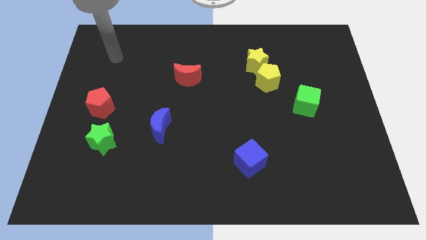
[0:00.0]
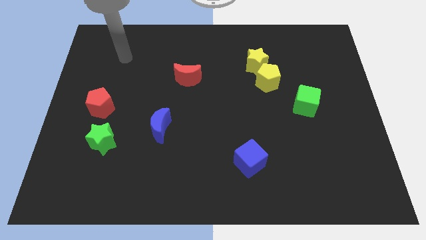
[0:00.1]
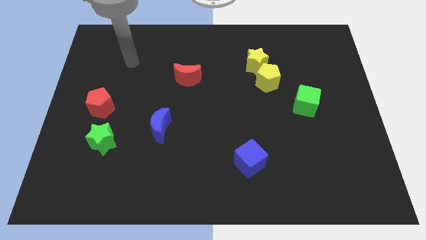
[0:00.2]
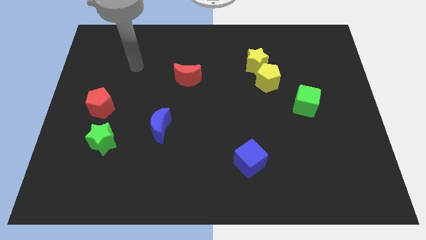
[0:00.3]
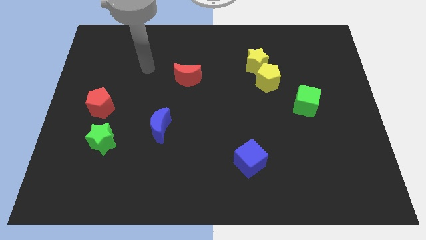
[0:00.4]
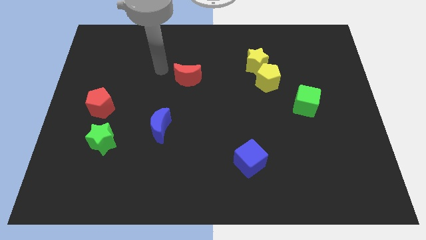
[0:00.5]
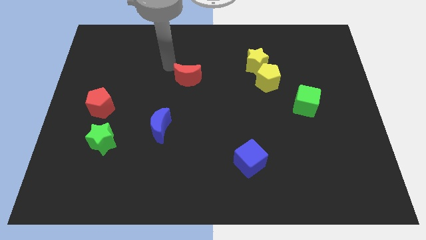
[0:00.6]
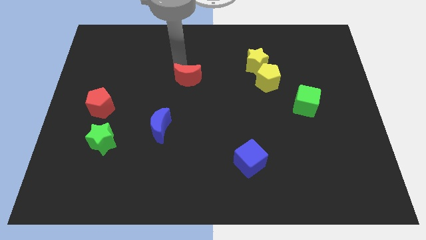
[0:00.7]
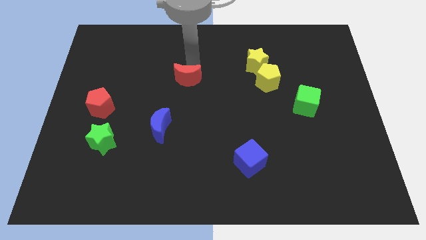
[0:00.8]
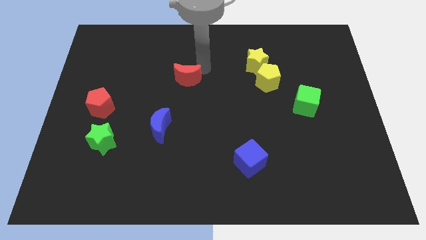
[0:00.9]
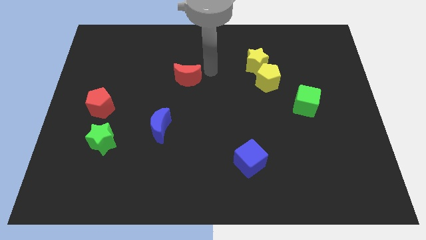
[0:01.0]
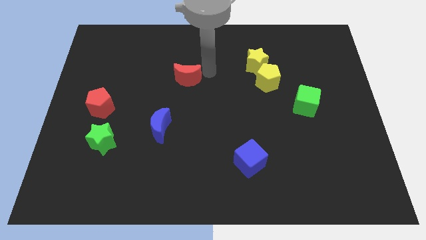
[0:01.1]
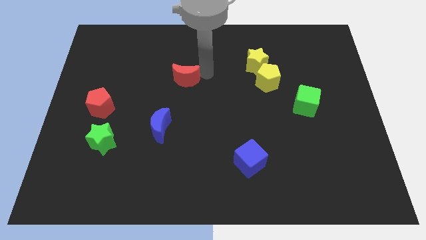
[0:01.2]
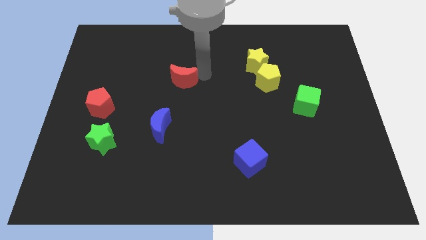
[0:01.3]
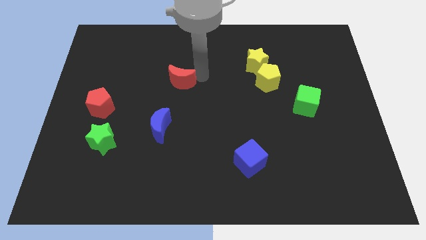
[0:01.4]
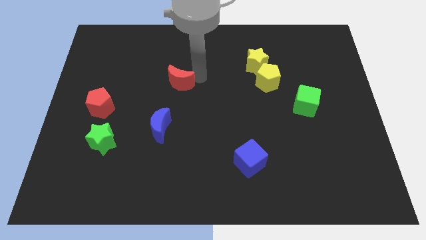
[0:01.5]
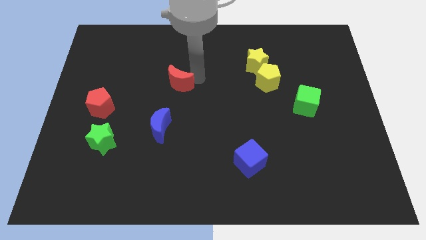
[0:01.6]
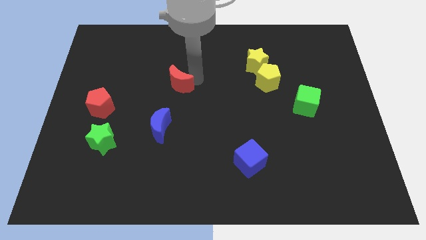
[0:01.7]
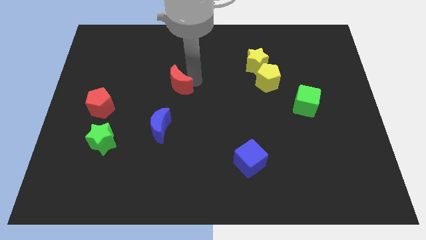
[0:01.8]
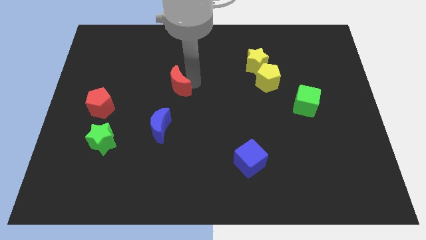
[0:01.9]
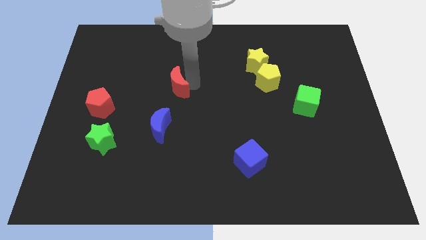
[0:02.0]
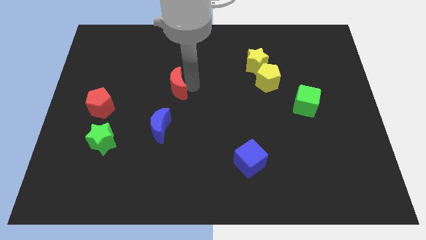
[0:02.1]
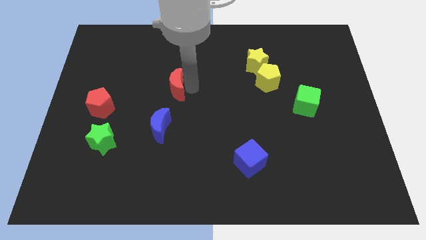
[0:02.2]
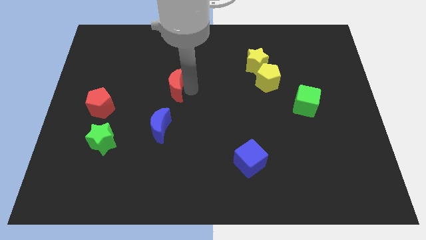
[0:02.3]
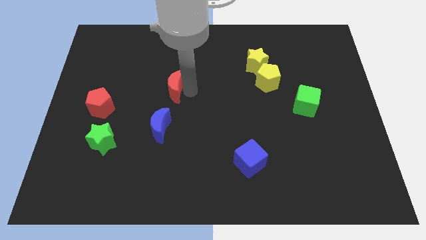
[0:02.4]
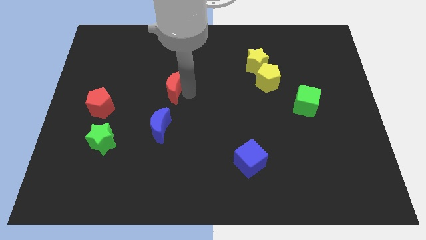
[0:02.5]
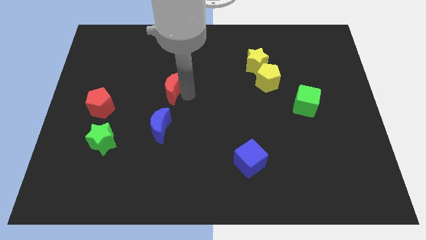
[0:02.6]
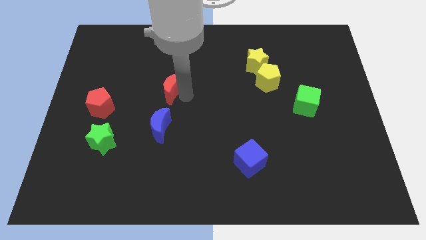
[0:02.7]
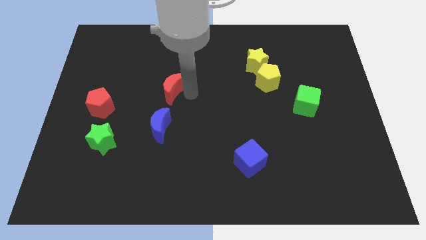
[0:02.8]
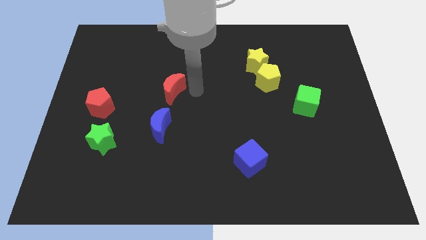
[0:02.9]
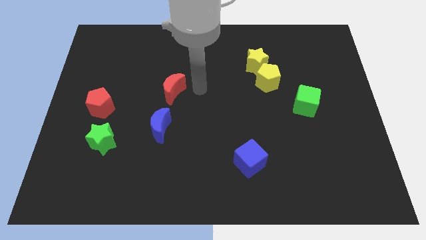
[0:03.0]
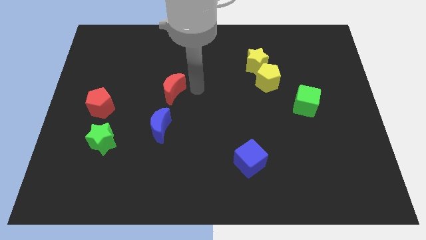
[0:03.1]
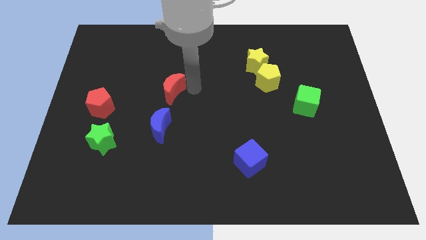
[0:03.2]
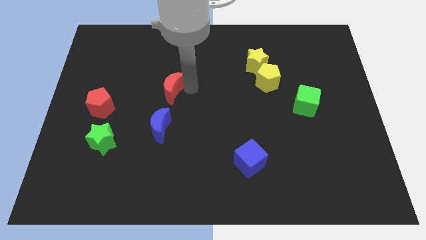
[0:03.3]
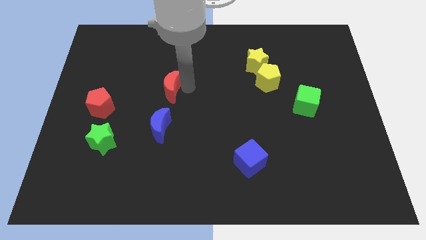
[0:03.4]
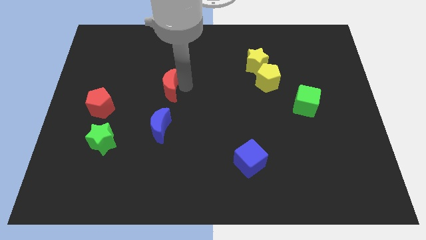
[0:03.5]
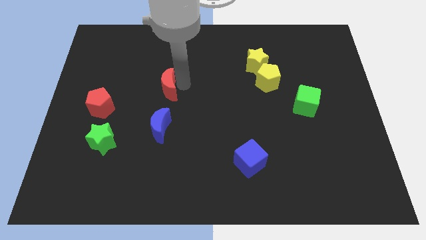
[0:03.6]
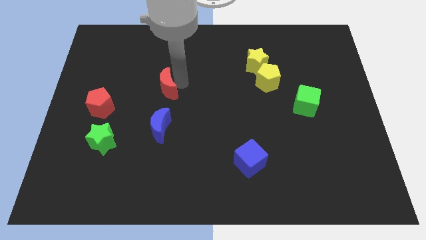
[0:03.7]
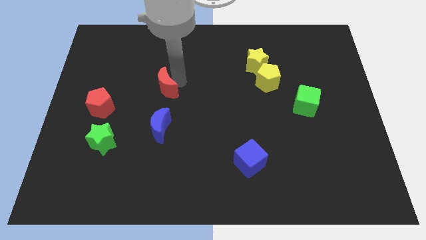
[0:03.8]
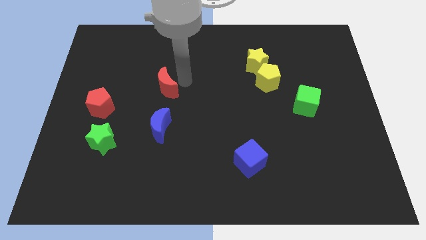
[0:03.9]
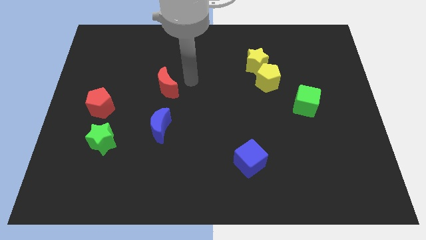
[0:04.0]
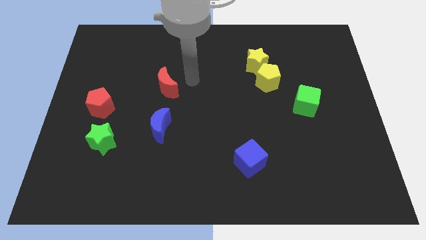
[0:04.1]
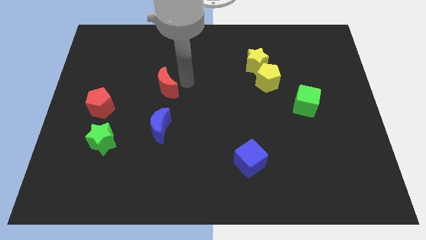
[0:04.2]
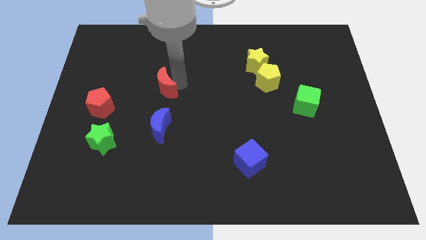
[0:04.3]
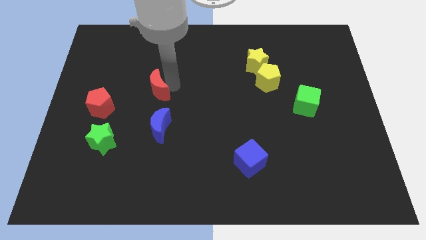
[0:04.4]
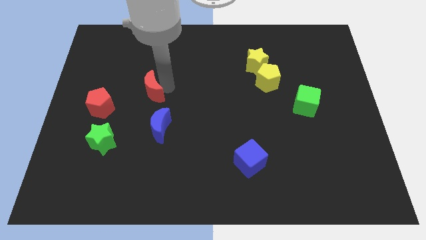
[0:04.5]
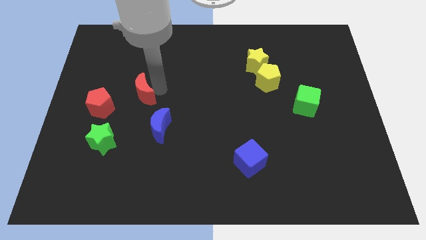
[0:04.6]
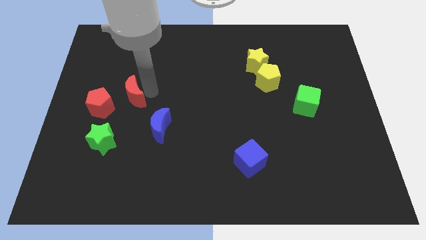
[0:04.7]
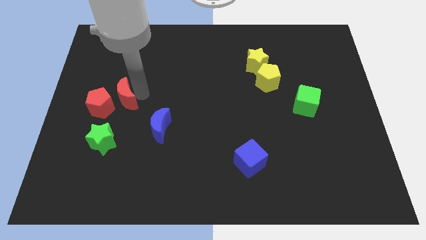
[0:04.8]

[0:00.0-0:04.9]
move the red moon close to the red pentagon

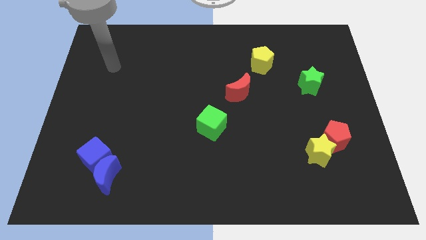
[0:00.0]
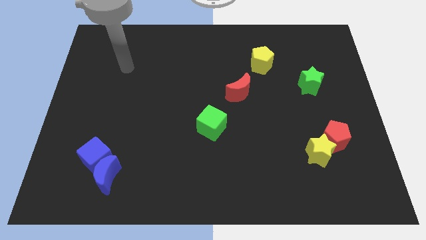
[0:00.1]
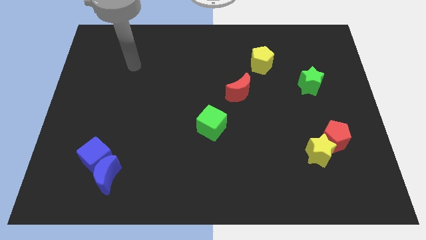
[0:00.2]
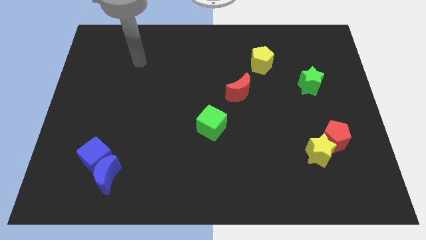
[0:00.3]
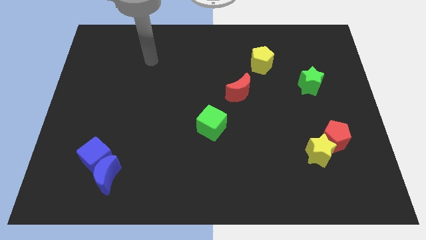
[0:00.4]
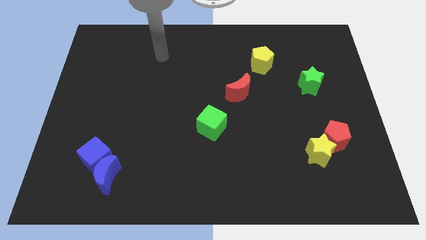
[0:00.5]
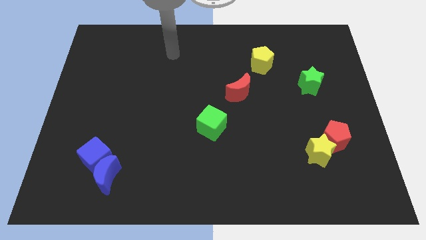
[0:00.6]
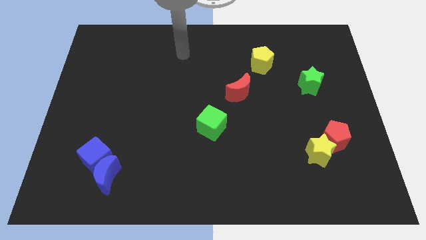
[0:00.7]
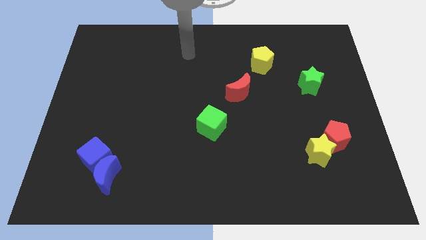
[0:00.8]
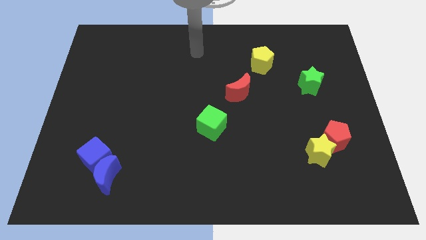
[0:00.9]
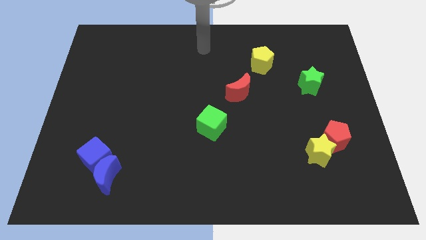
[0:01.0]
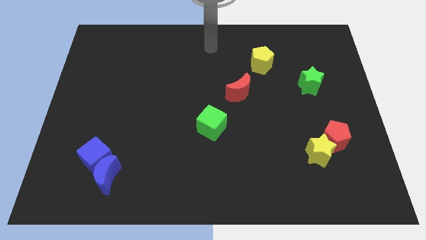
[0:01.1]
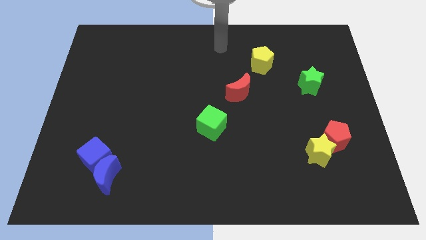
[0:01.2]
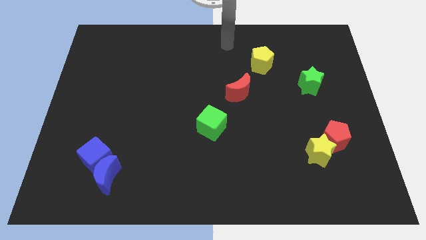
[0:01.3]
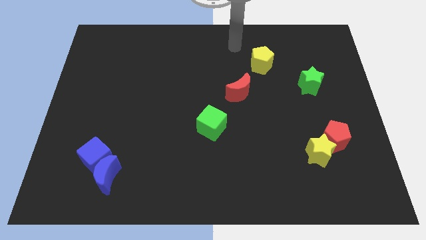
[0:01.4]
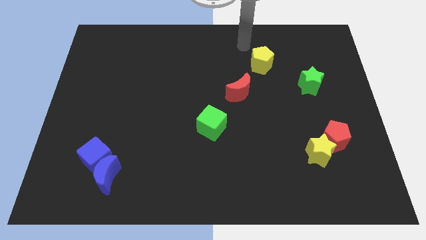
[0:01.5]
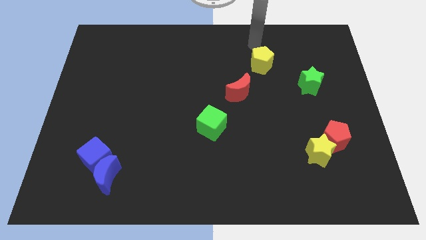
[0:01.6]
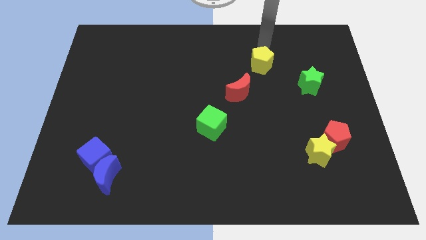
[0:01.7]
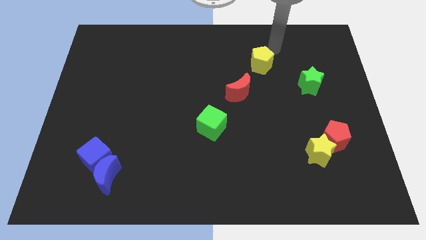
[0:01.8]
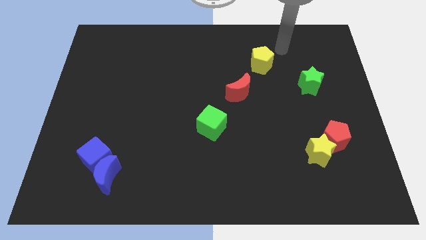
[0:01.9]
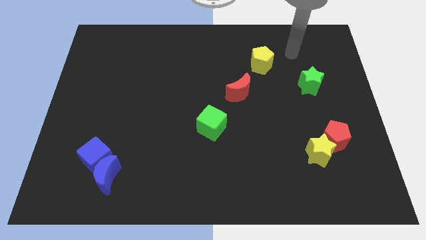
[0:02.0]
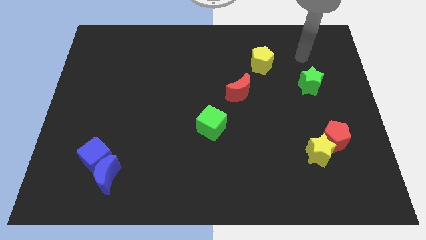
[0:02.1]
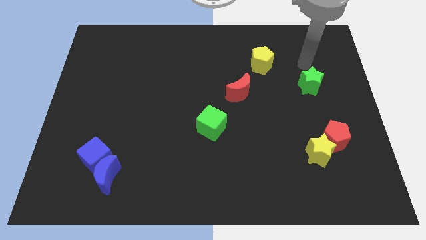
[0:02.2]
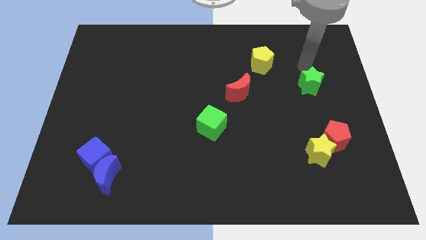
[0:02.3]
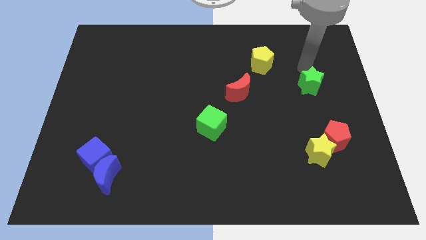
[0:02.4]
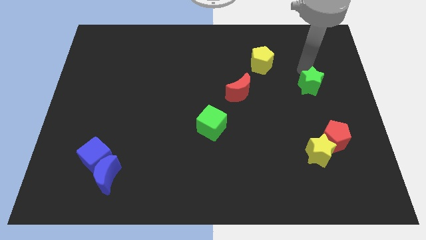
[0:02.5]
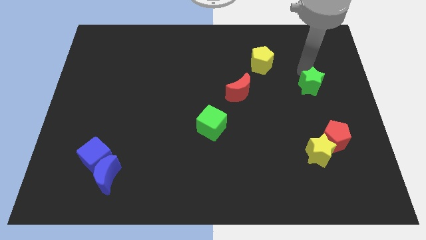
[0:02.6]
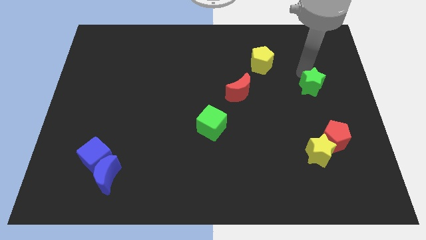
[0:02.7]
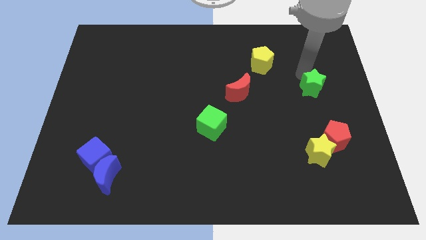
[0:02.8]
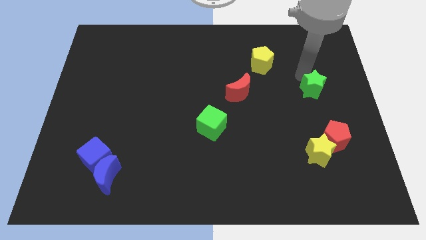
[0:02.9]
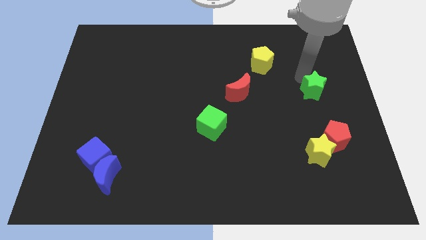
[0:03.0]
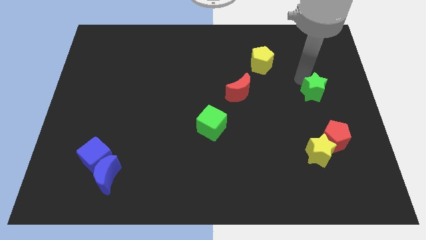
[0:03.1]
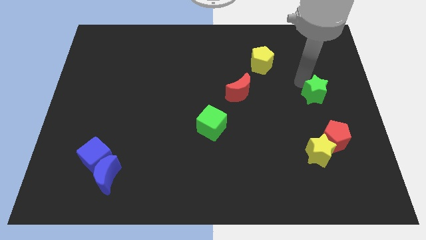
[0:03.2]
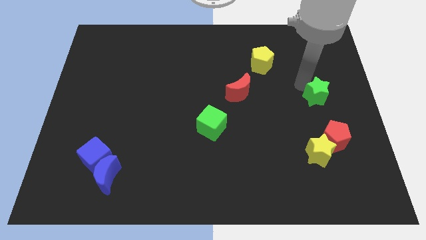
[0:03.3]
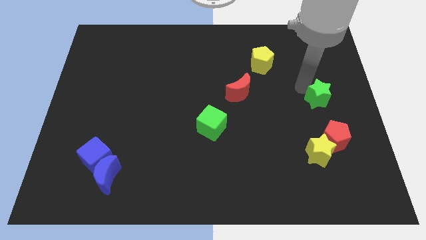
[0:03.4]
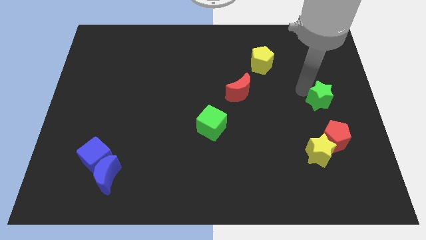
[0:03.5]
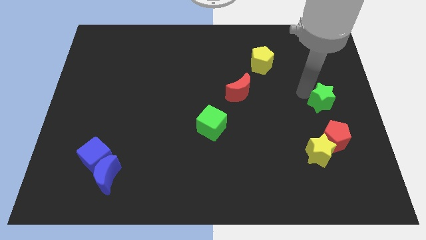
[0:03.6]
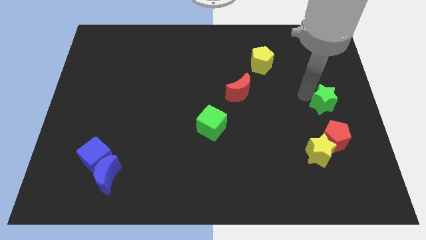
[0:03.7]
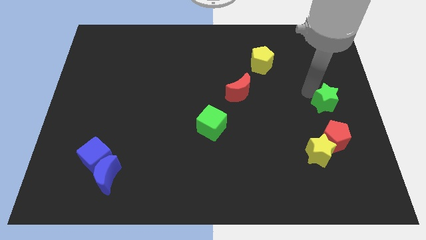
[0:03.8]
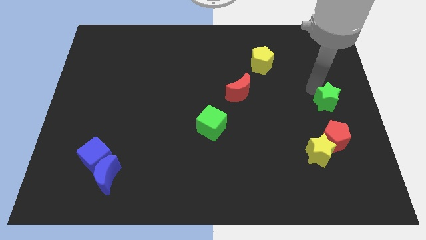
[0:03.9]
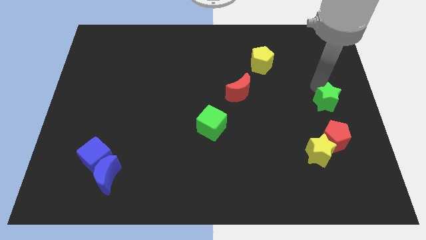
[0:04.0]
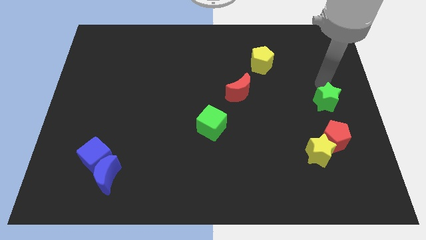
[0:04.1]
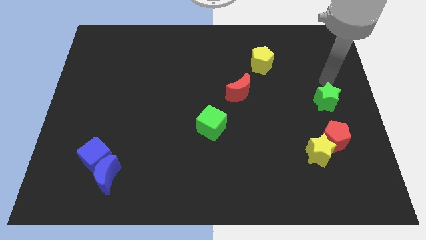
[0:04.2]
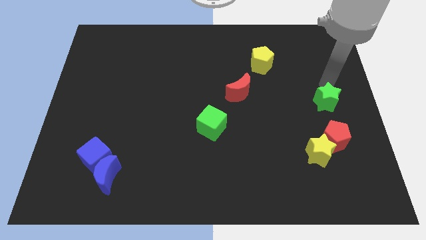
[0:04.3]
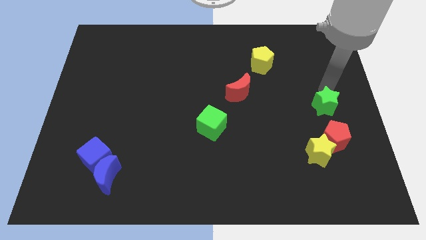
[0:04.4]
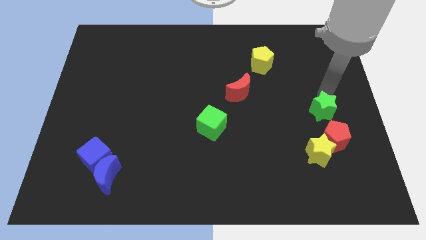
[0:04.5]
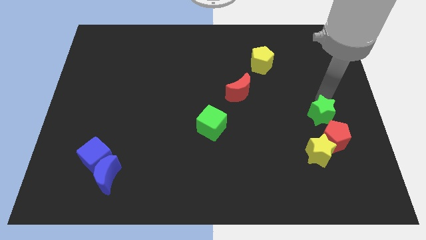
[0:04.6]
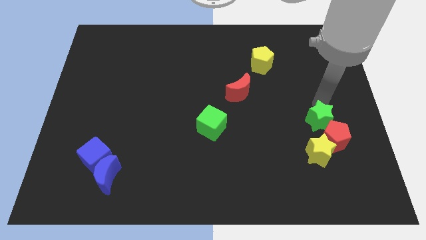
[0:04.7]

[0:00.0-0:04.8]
move the green star towards the red pentagon
